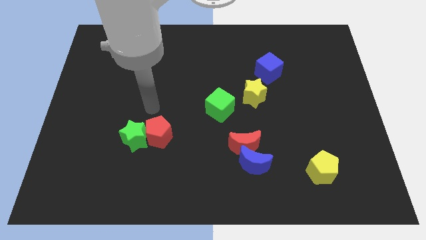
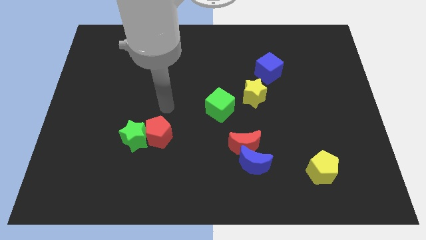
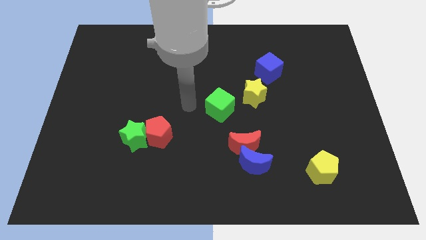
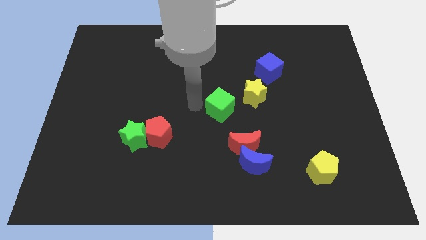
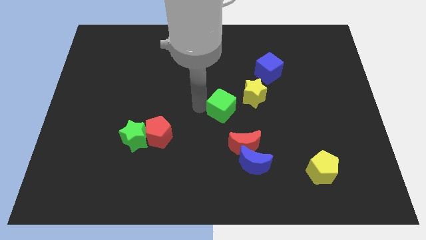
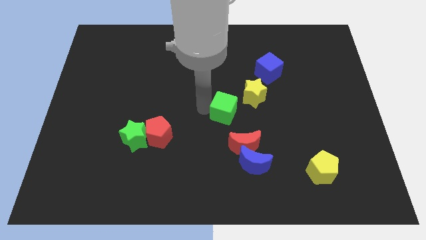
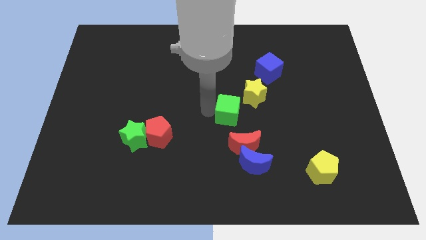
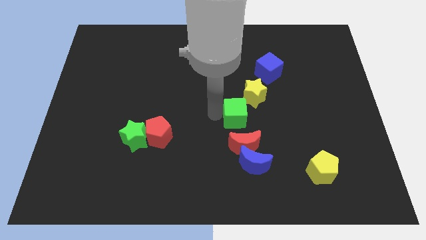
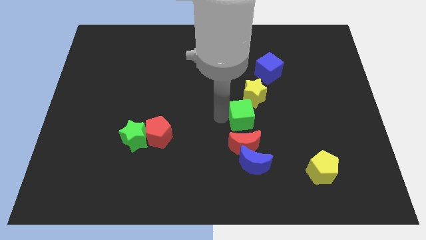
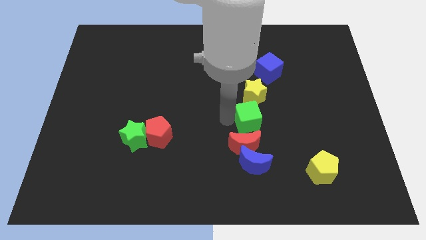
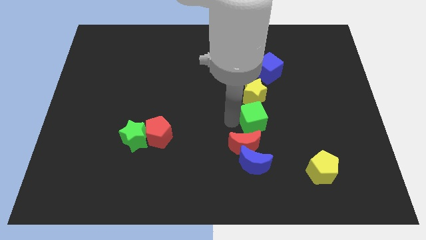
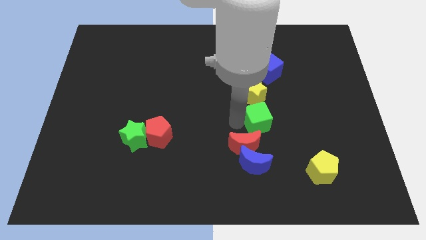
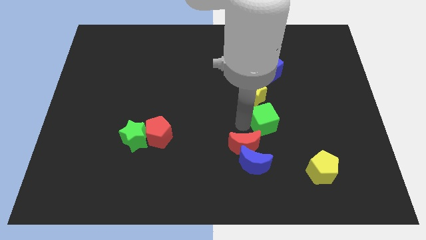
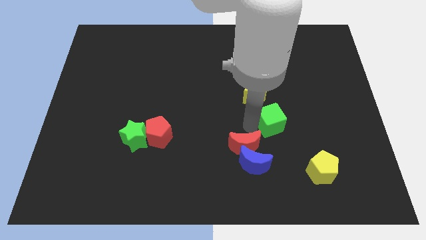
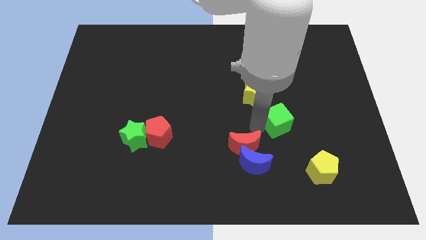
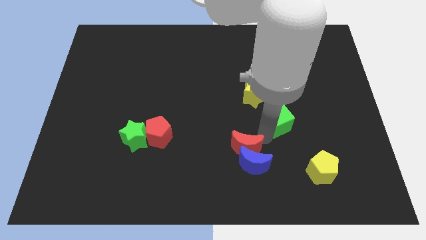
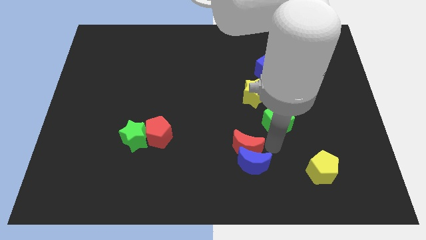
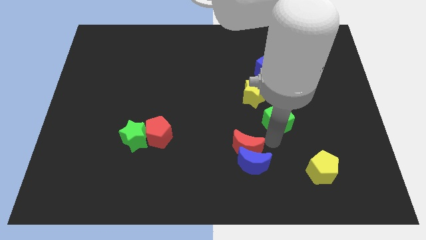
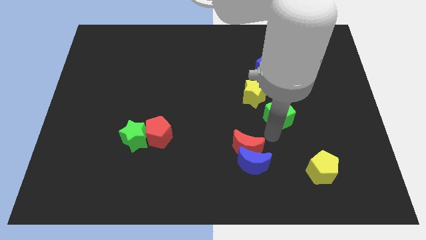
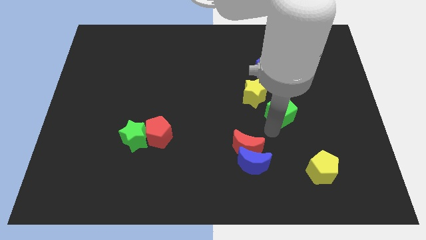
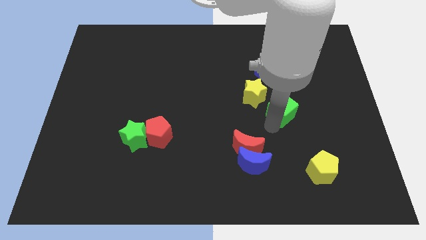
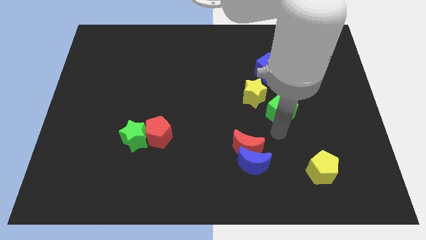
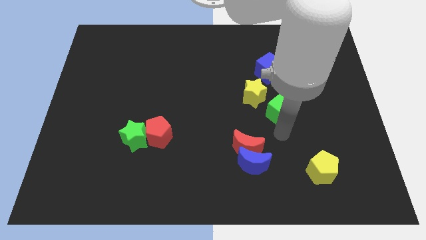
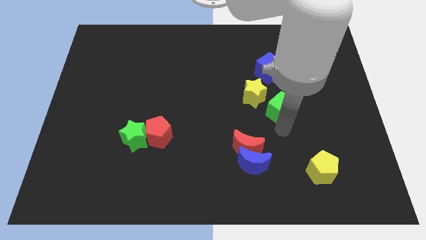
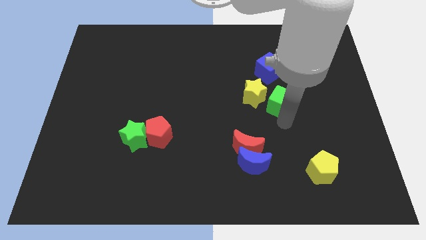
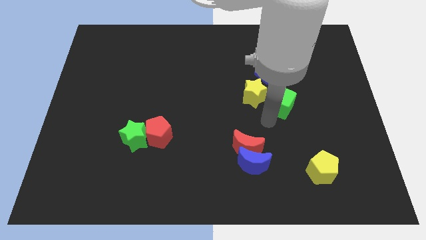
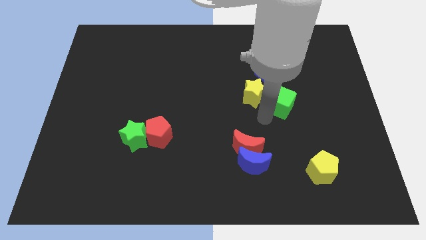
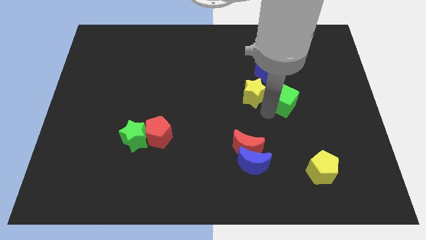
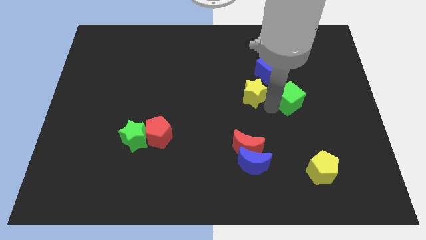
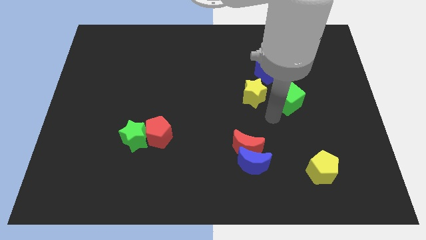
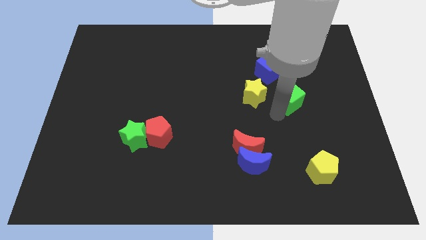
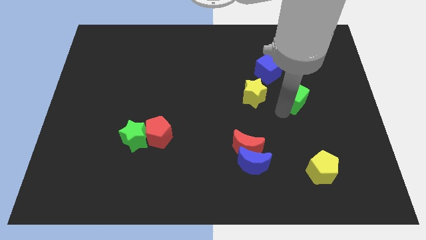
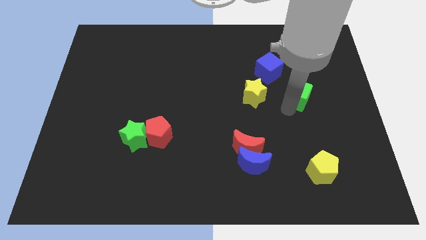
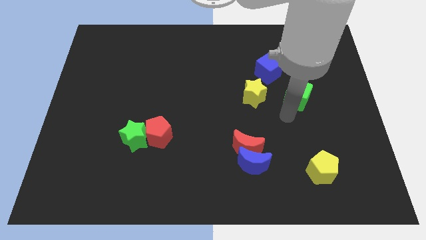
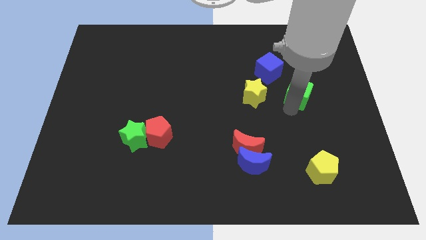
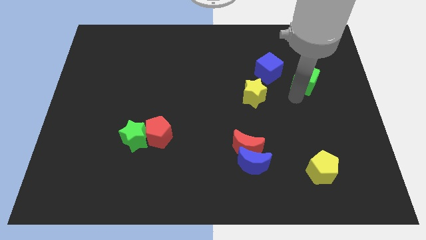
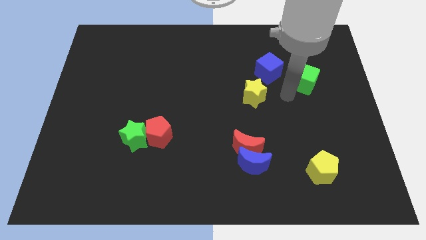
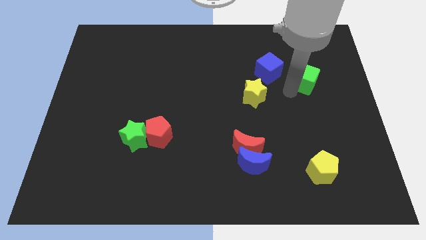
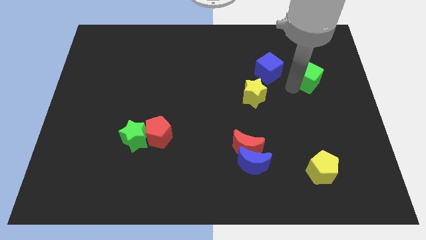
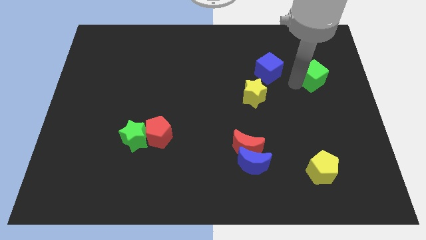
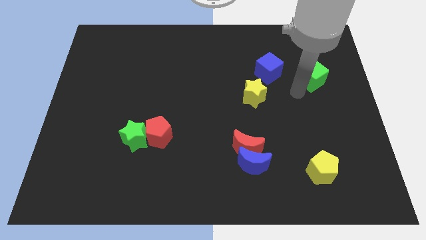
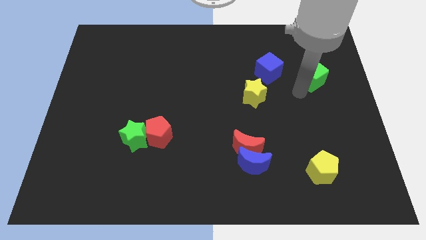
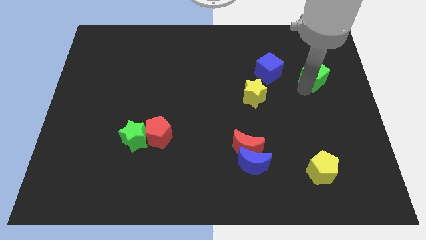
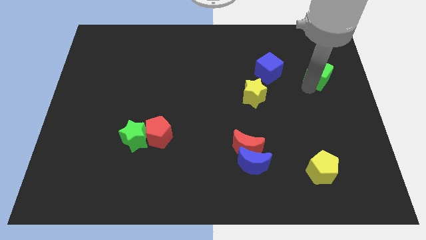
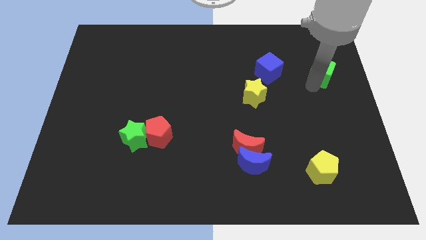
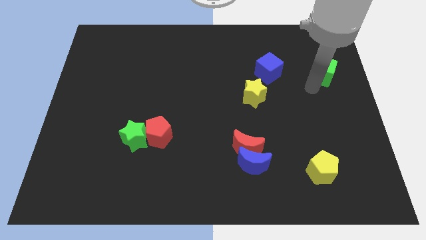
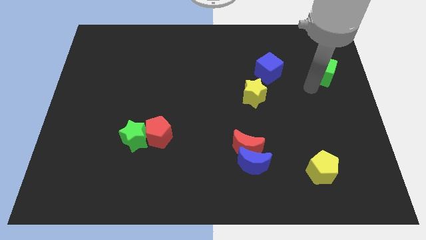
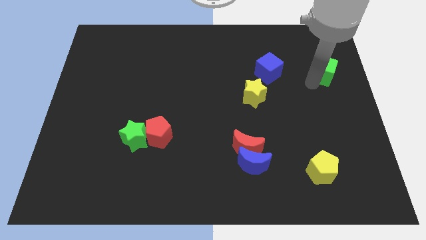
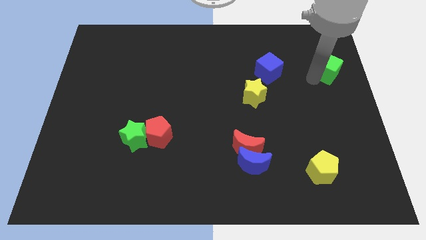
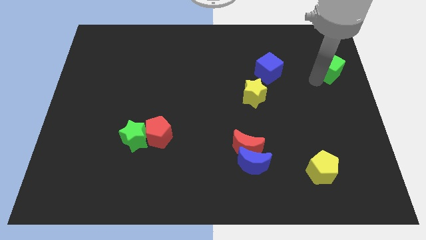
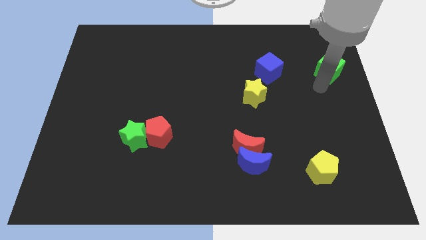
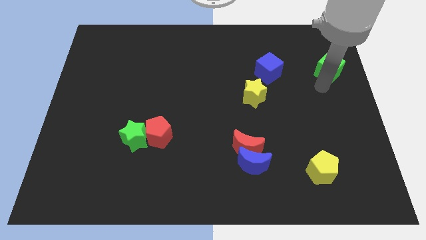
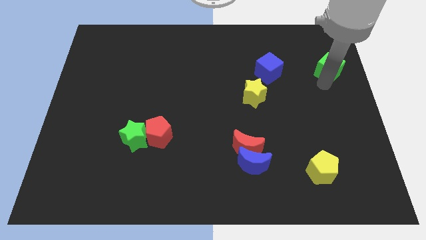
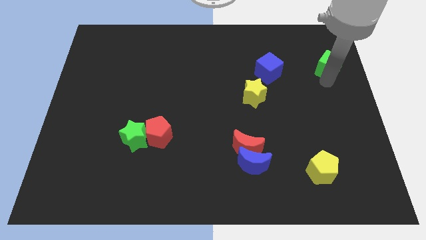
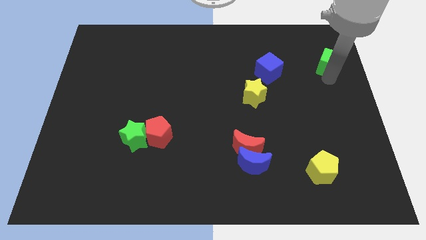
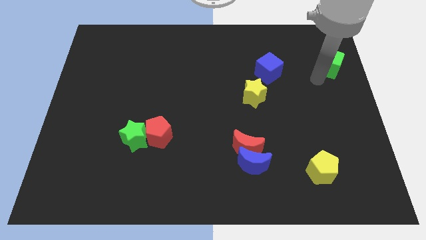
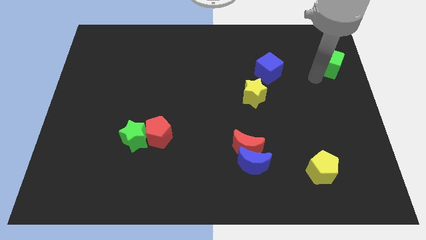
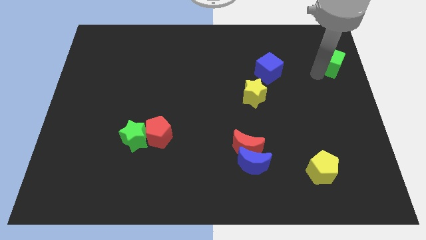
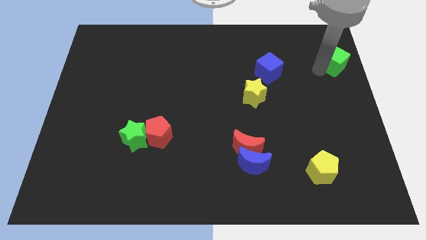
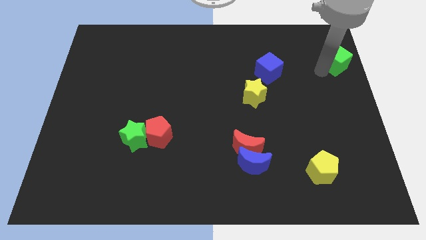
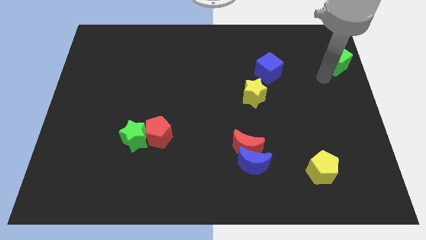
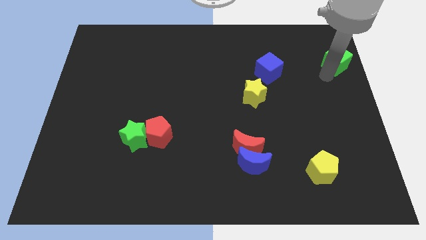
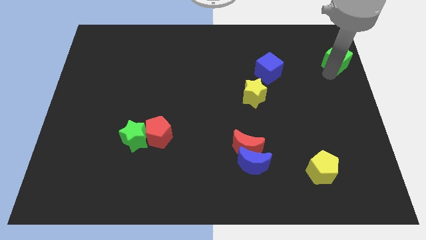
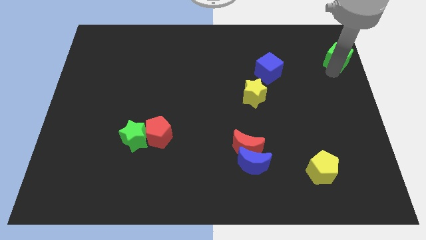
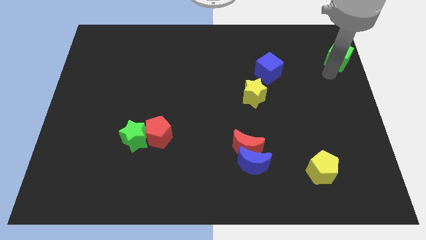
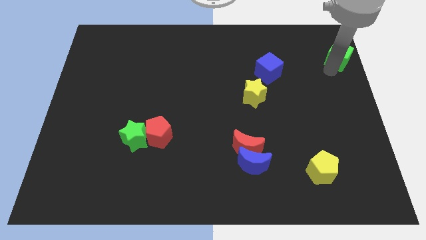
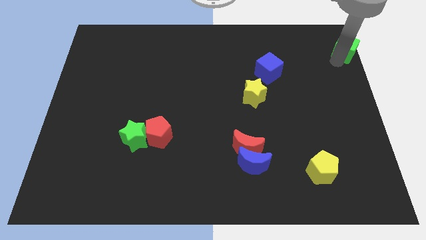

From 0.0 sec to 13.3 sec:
move the green cube to the top right corner
